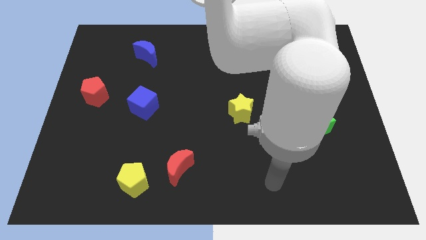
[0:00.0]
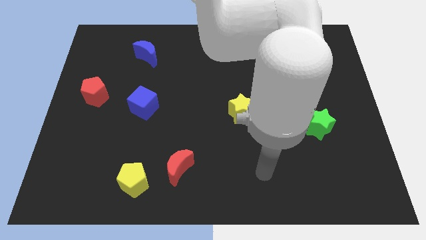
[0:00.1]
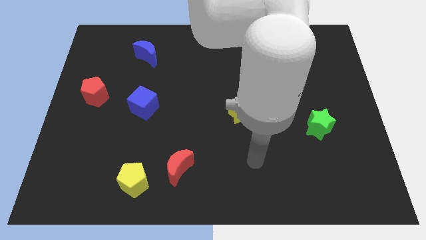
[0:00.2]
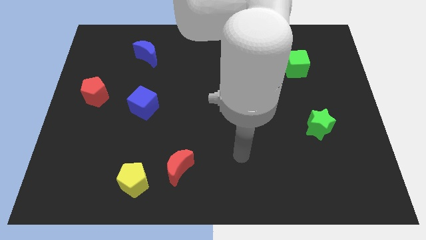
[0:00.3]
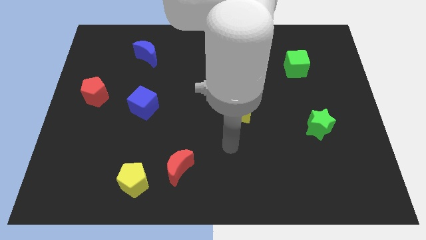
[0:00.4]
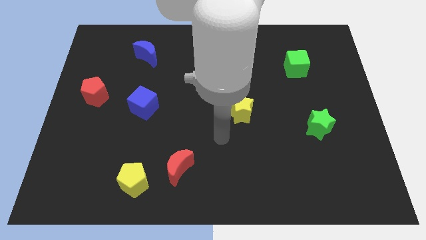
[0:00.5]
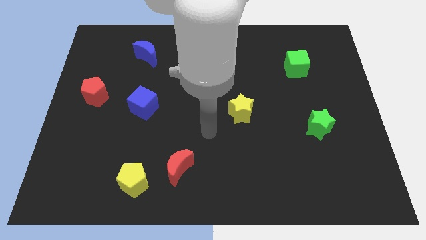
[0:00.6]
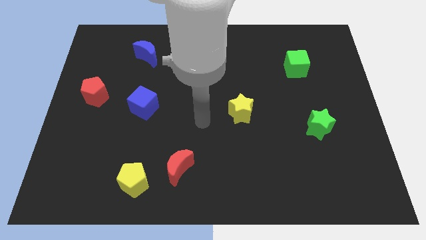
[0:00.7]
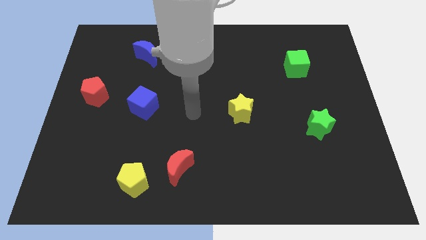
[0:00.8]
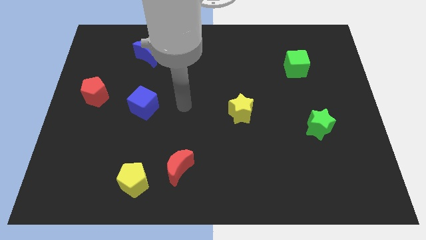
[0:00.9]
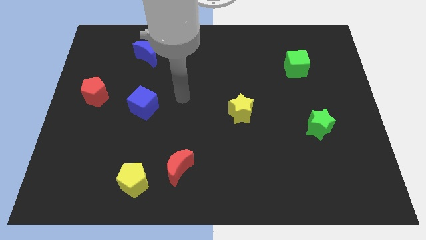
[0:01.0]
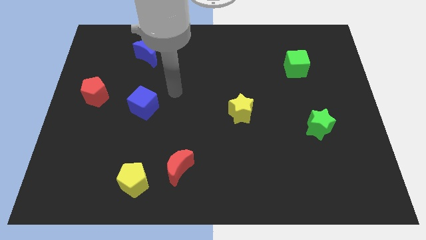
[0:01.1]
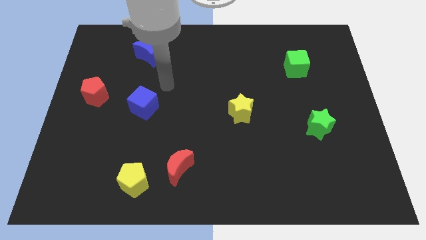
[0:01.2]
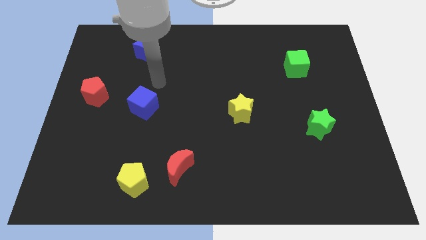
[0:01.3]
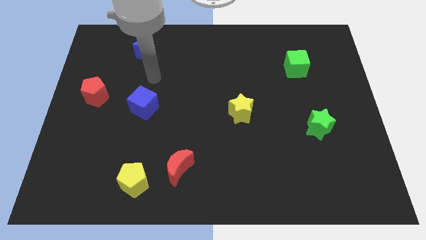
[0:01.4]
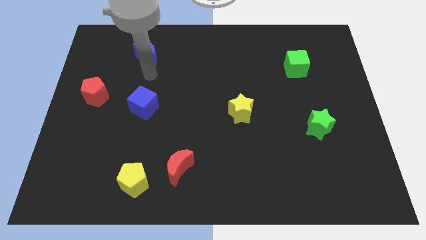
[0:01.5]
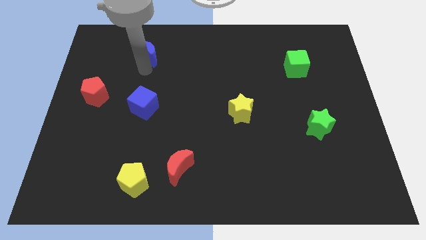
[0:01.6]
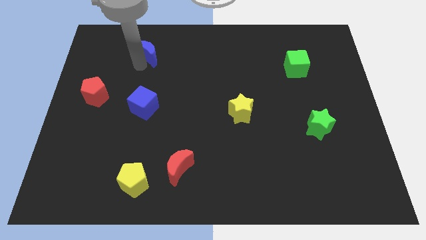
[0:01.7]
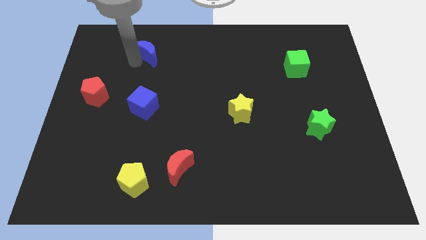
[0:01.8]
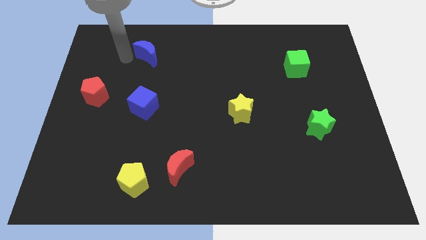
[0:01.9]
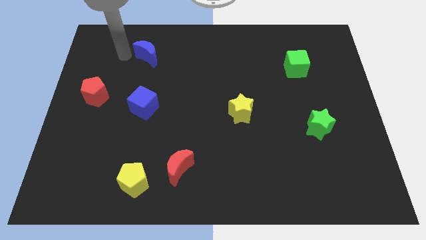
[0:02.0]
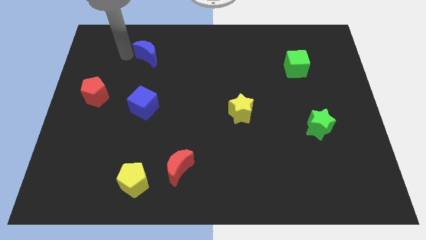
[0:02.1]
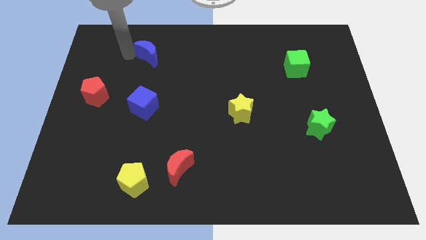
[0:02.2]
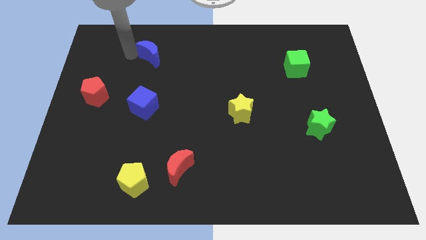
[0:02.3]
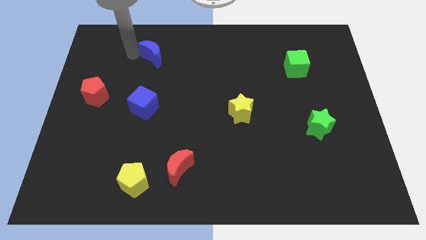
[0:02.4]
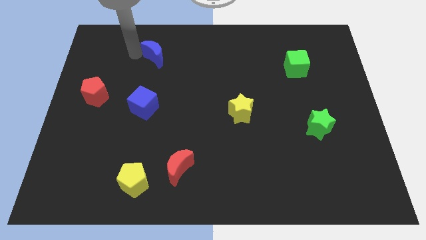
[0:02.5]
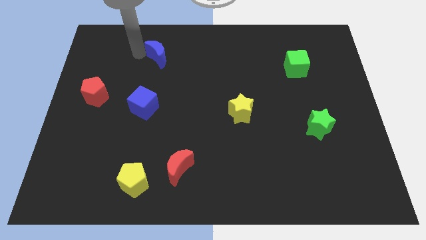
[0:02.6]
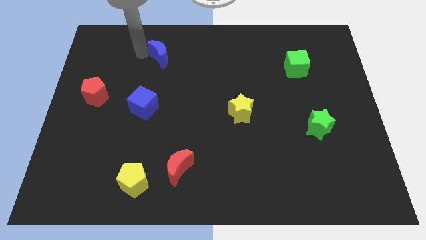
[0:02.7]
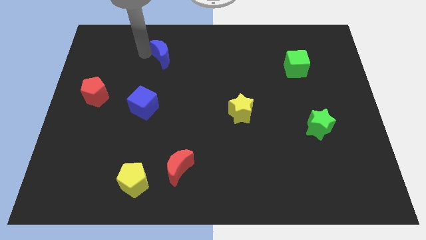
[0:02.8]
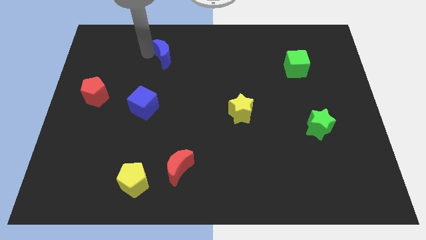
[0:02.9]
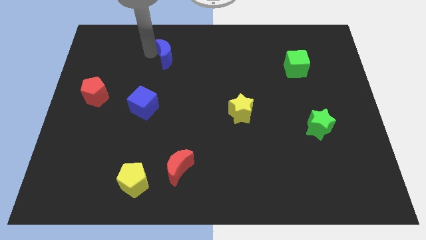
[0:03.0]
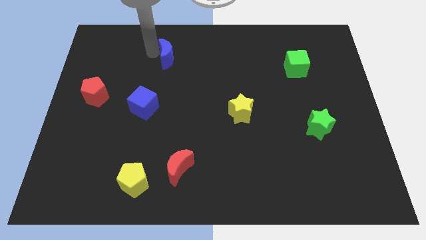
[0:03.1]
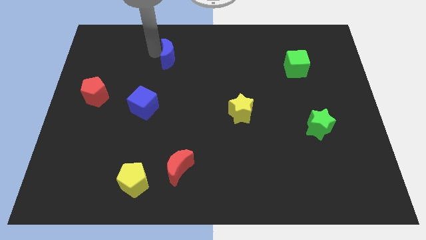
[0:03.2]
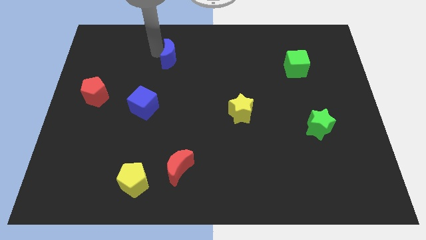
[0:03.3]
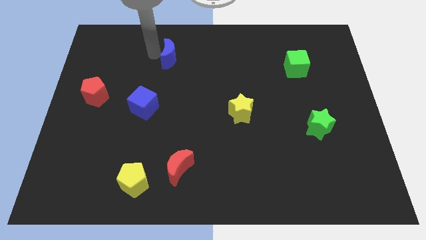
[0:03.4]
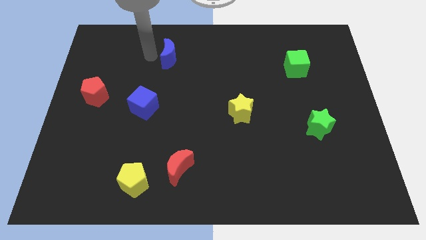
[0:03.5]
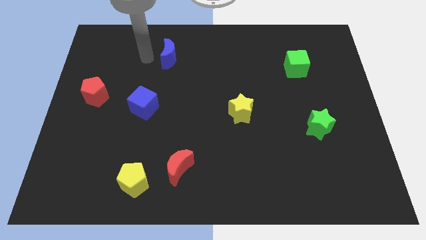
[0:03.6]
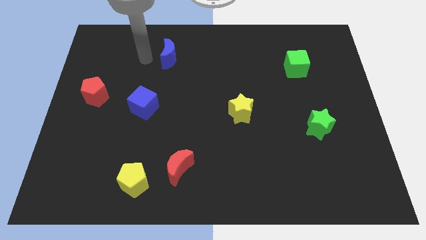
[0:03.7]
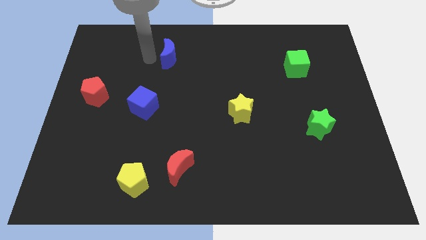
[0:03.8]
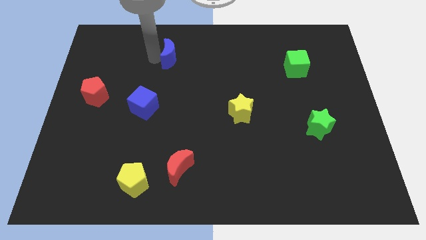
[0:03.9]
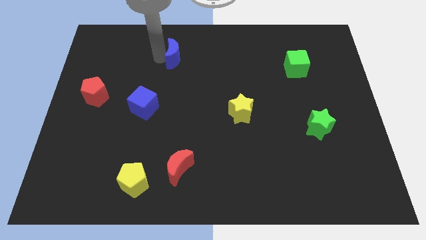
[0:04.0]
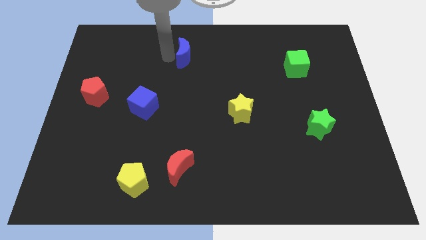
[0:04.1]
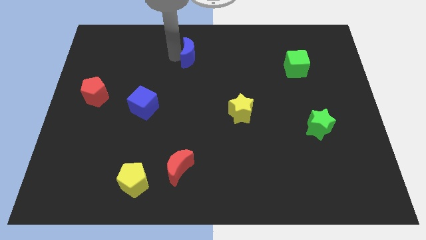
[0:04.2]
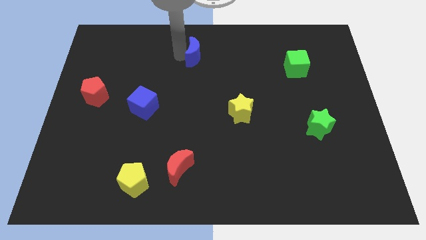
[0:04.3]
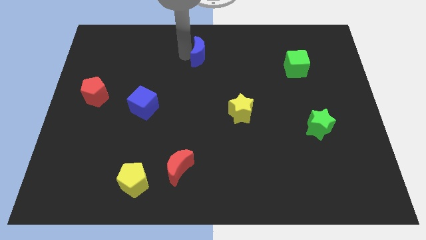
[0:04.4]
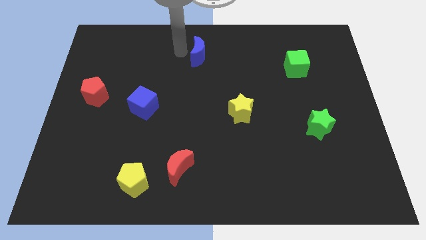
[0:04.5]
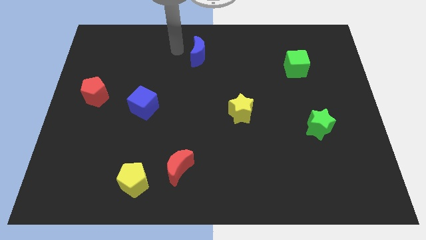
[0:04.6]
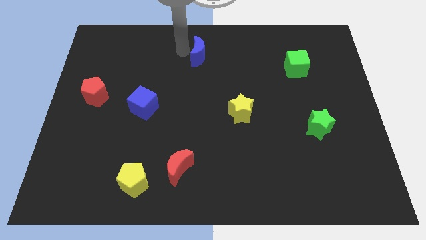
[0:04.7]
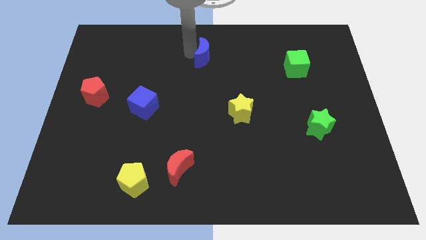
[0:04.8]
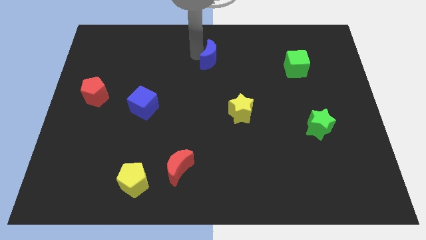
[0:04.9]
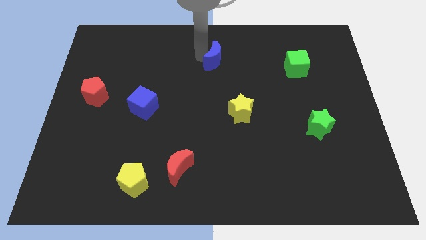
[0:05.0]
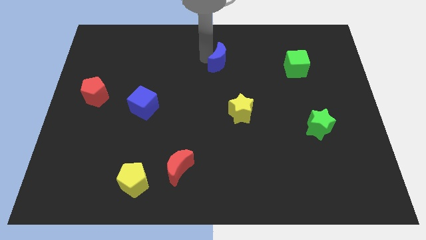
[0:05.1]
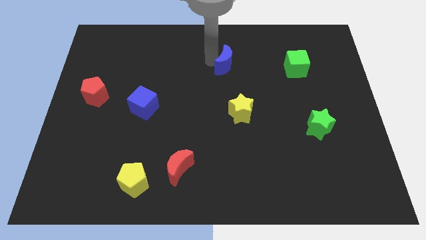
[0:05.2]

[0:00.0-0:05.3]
slide the blue moon right

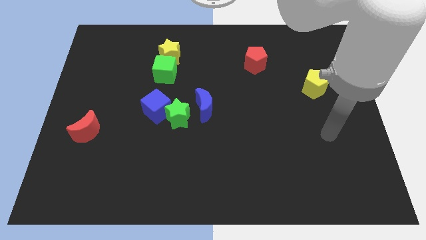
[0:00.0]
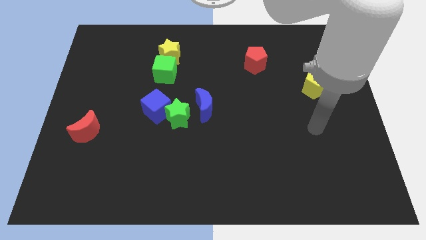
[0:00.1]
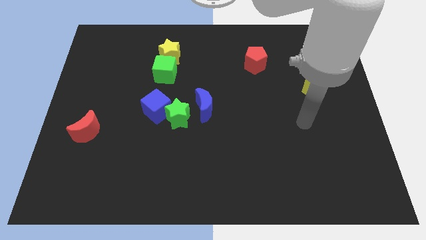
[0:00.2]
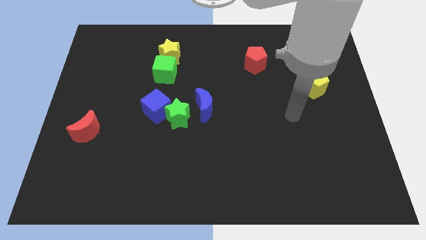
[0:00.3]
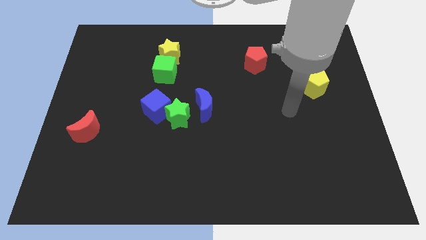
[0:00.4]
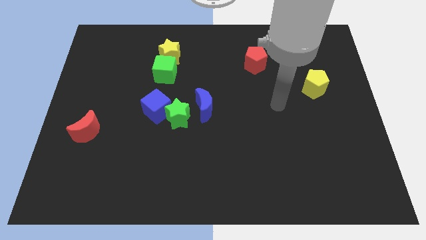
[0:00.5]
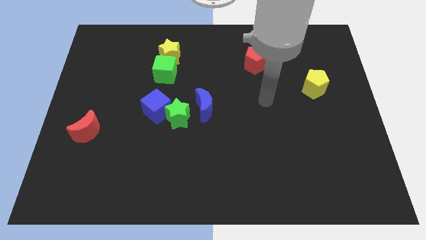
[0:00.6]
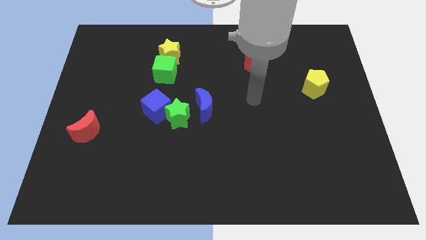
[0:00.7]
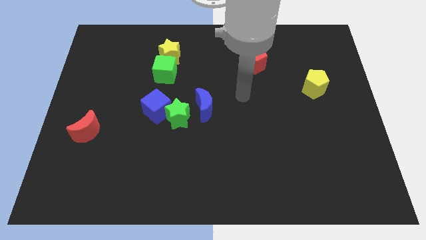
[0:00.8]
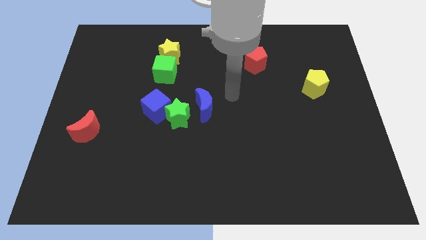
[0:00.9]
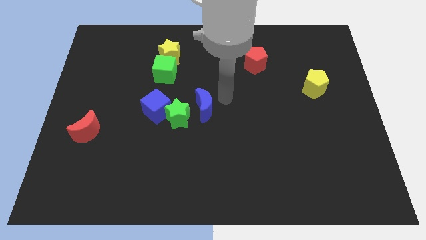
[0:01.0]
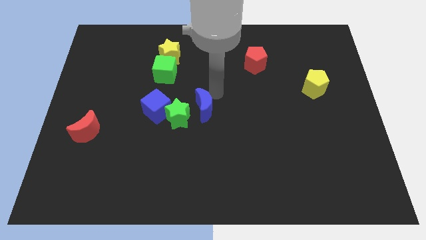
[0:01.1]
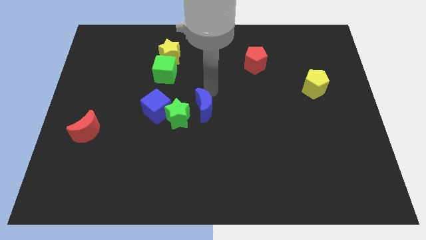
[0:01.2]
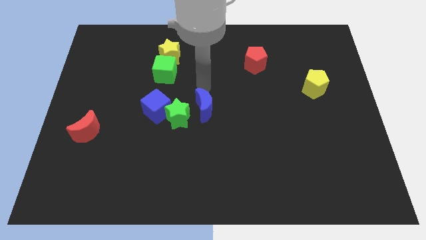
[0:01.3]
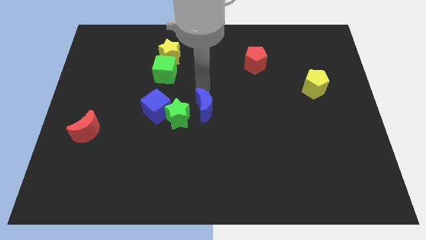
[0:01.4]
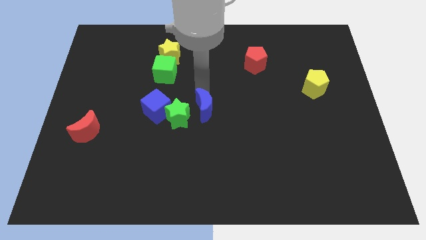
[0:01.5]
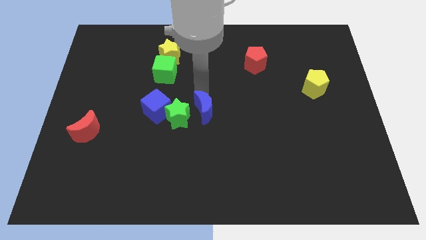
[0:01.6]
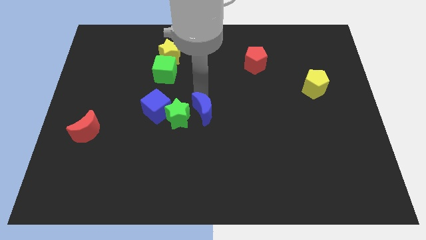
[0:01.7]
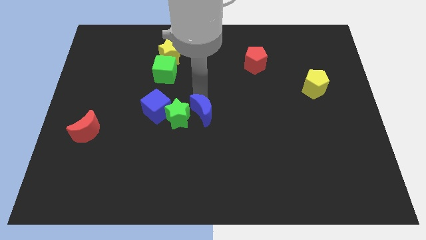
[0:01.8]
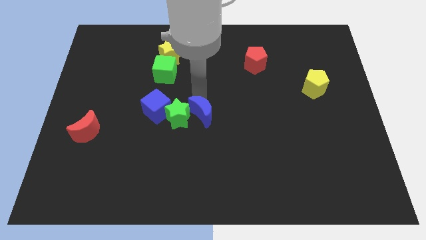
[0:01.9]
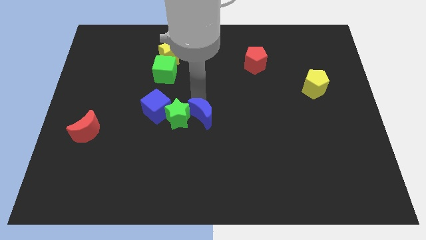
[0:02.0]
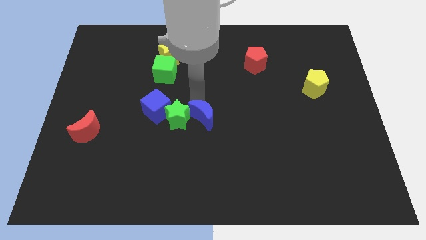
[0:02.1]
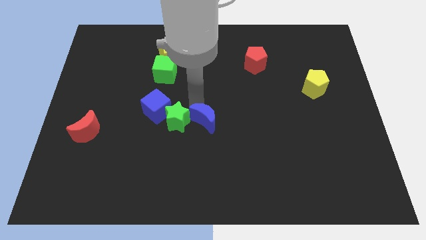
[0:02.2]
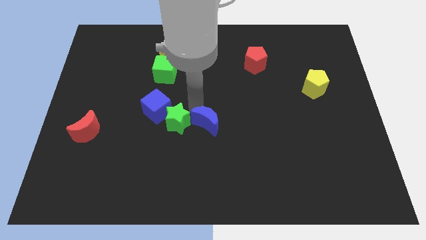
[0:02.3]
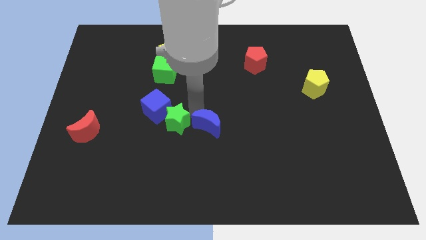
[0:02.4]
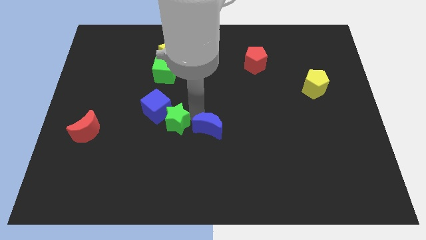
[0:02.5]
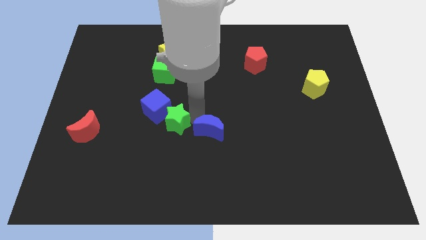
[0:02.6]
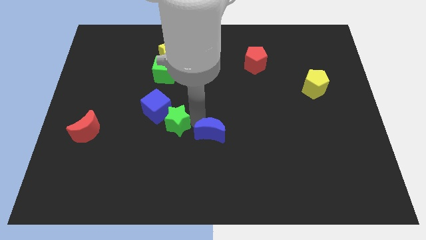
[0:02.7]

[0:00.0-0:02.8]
slide the blue moon slightly down

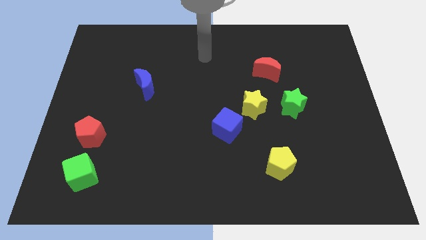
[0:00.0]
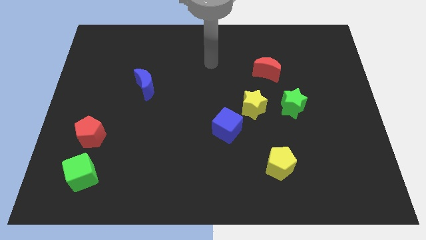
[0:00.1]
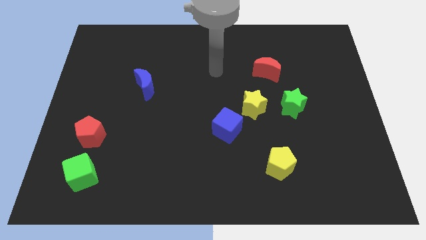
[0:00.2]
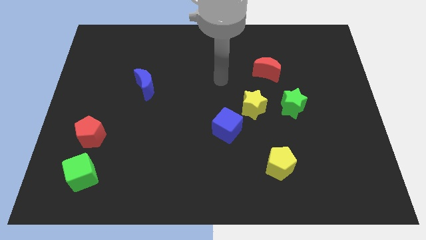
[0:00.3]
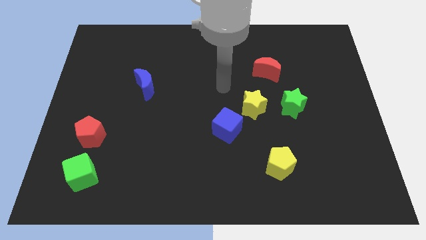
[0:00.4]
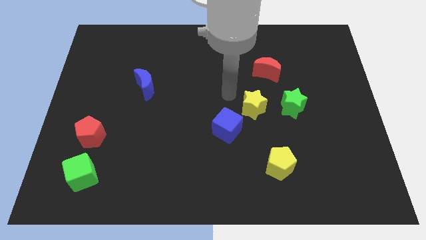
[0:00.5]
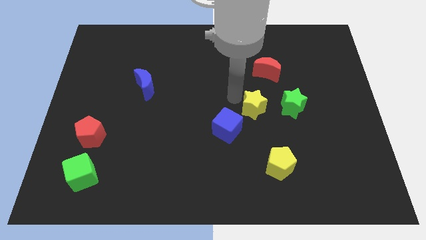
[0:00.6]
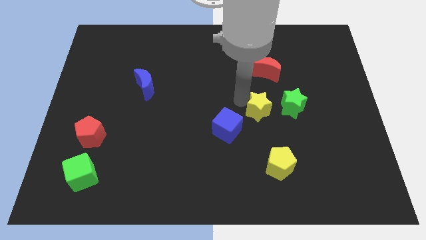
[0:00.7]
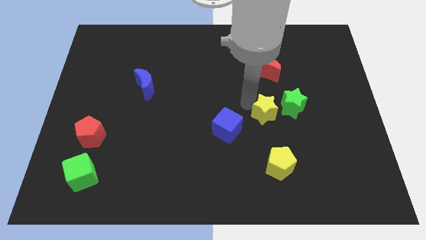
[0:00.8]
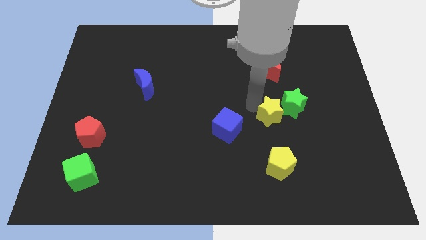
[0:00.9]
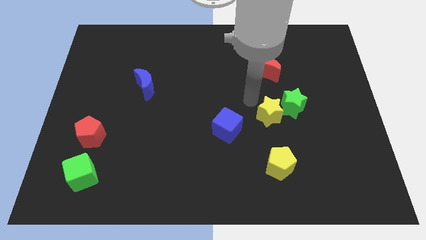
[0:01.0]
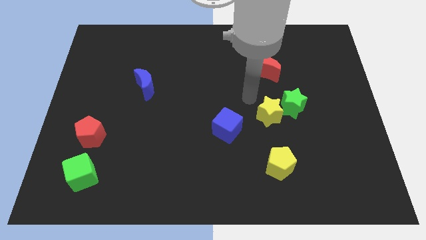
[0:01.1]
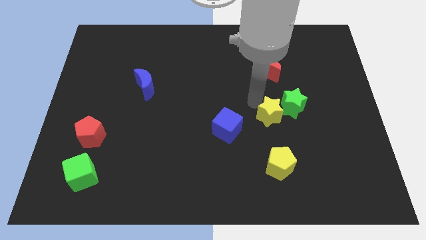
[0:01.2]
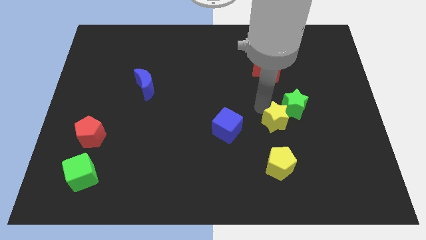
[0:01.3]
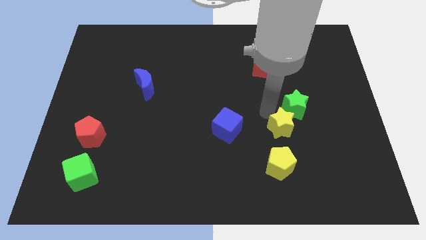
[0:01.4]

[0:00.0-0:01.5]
push the yellow star a little bit downwards and to the right
